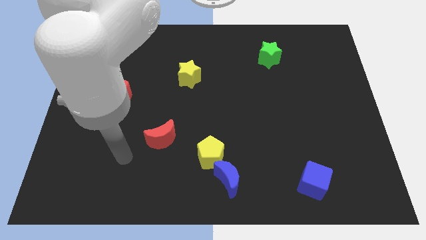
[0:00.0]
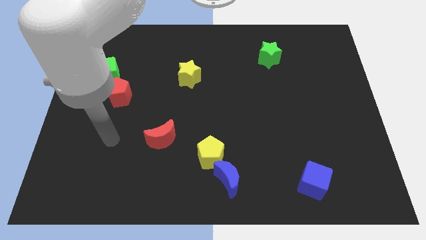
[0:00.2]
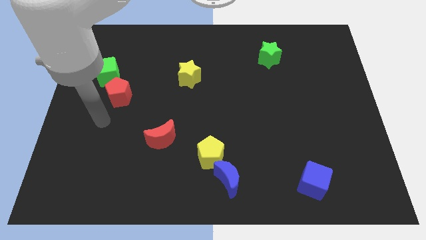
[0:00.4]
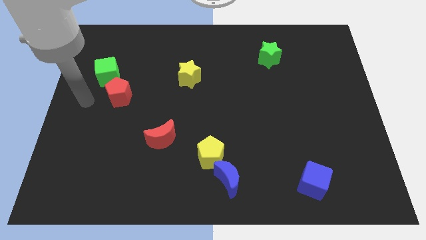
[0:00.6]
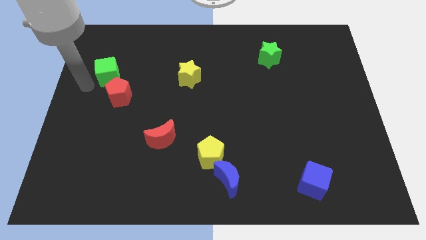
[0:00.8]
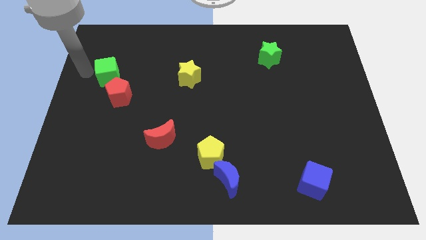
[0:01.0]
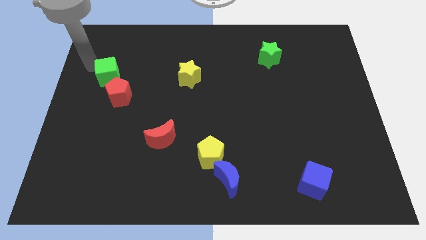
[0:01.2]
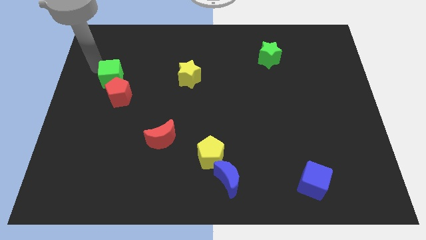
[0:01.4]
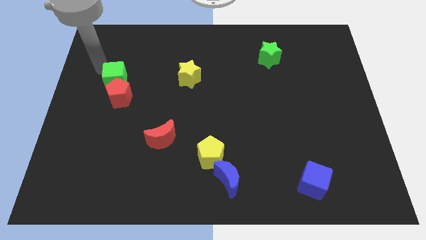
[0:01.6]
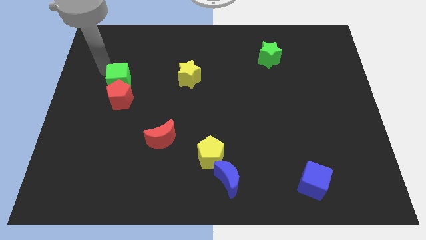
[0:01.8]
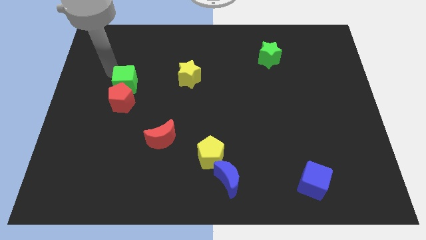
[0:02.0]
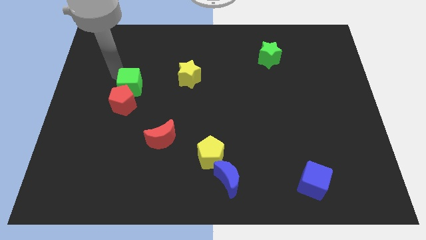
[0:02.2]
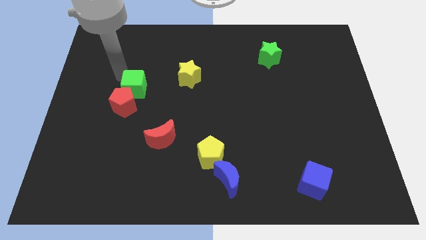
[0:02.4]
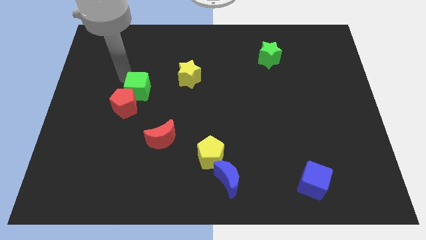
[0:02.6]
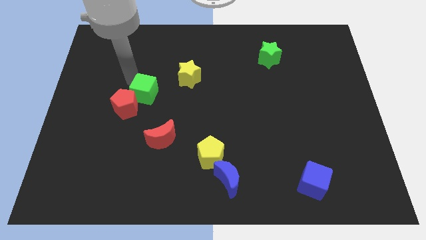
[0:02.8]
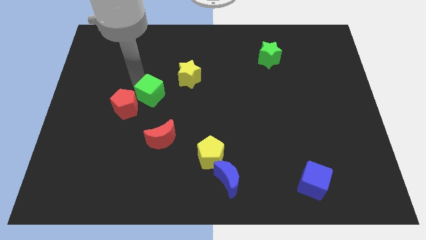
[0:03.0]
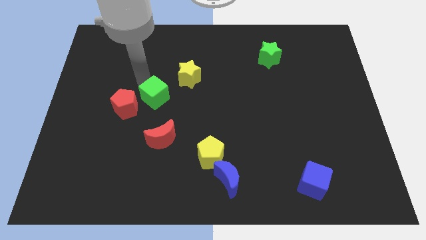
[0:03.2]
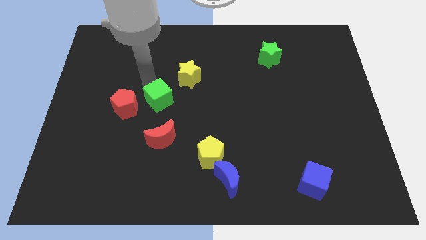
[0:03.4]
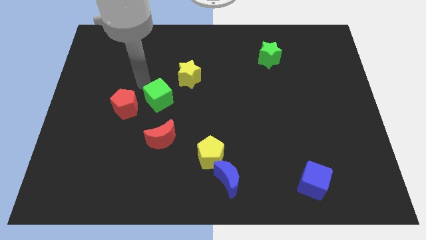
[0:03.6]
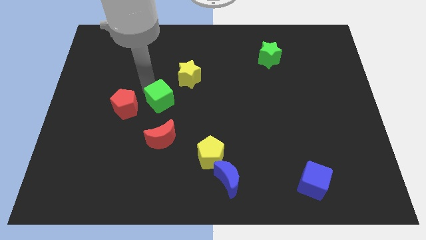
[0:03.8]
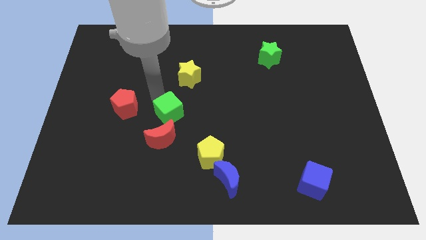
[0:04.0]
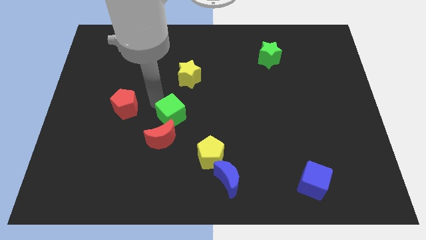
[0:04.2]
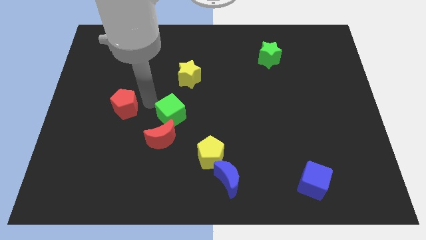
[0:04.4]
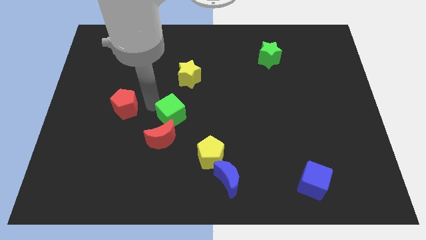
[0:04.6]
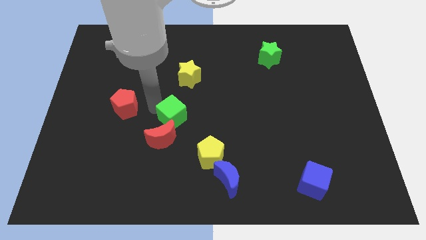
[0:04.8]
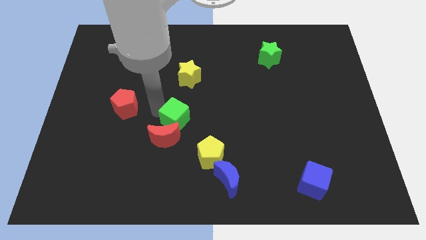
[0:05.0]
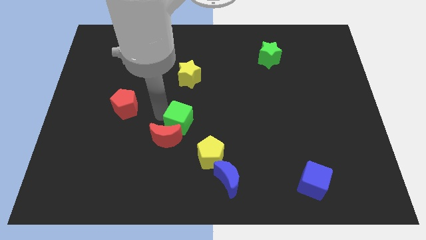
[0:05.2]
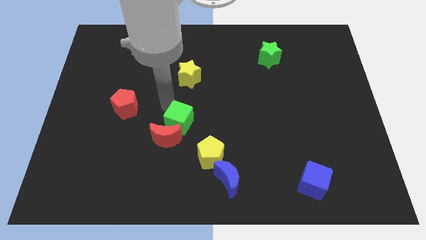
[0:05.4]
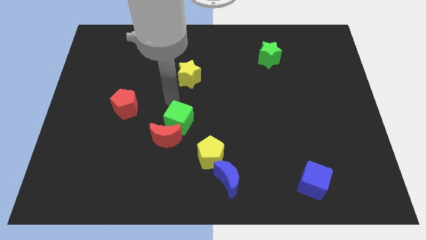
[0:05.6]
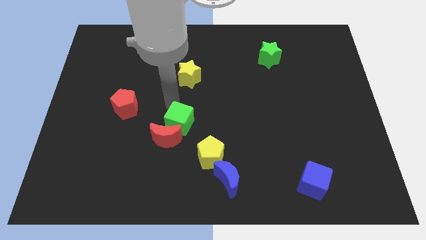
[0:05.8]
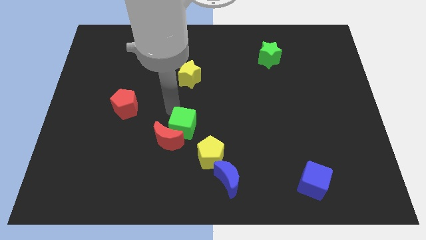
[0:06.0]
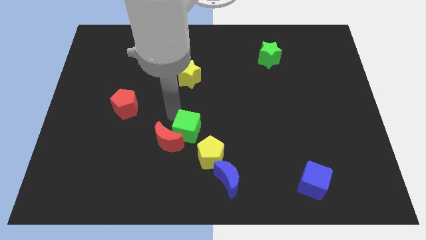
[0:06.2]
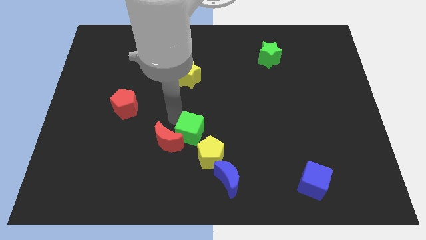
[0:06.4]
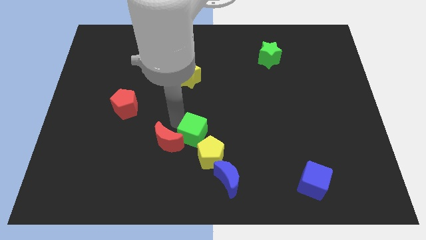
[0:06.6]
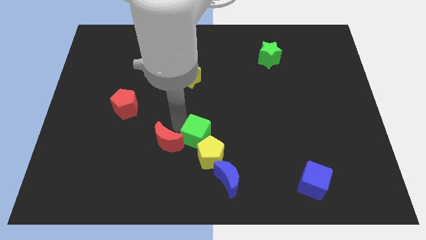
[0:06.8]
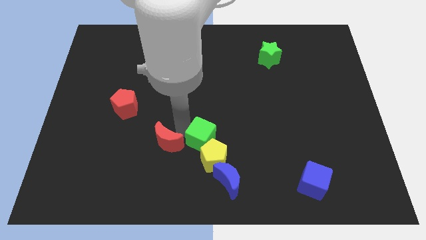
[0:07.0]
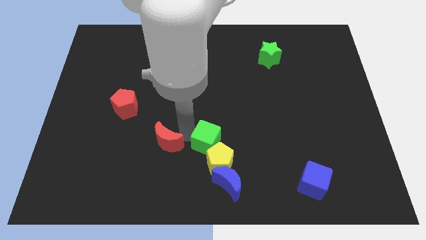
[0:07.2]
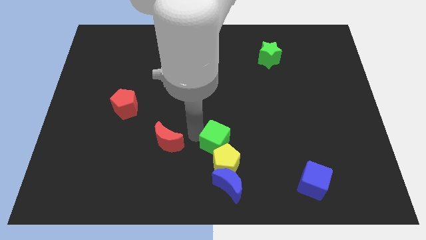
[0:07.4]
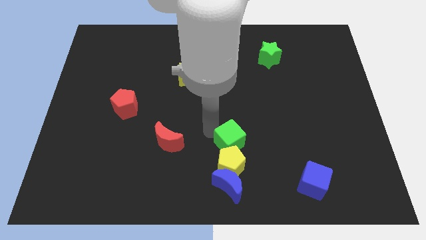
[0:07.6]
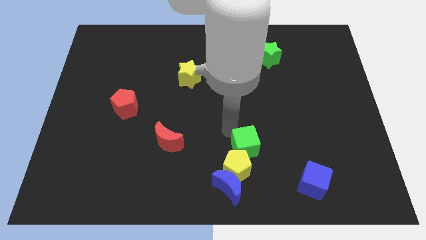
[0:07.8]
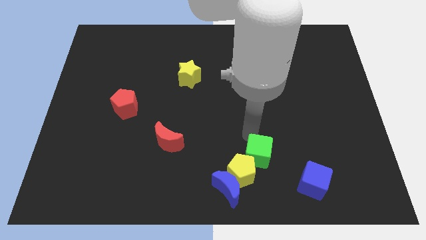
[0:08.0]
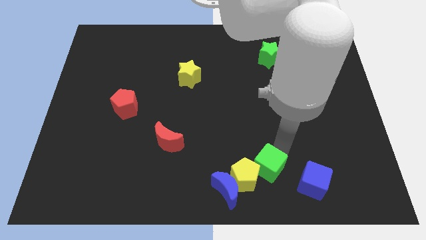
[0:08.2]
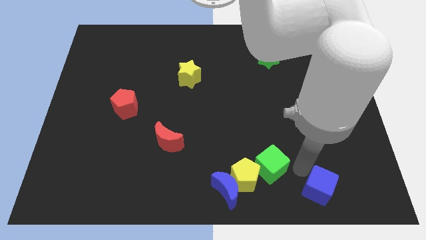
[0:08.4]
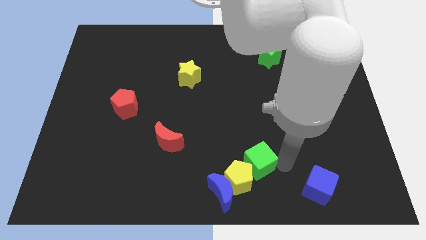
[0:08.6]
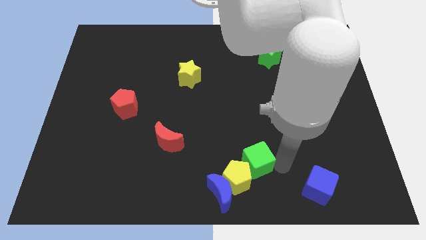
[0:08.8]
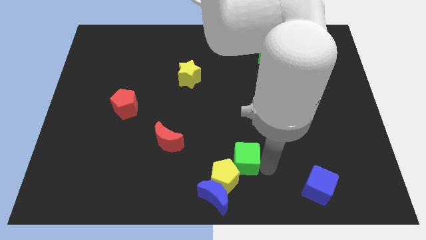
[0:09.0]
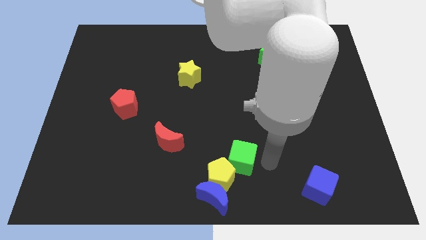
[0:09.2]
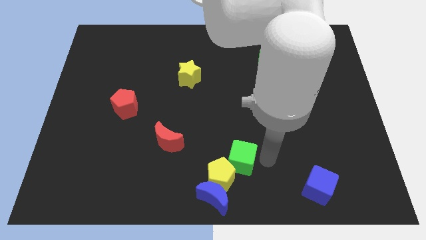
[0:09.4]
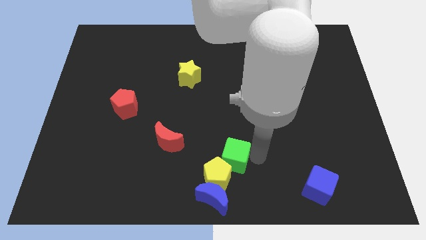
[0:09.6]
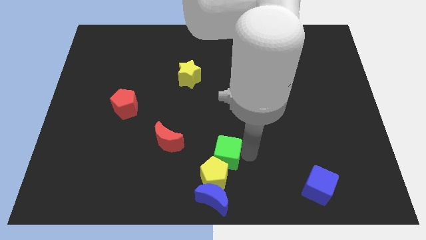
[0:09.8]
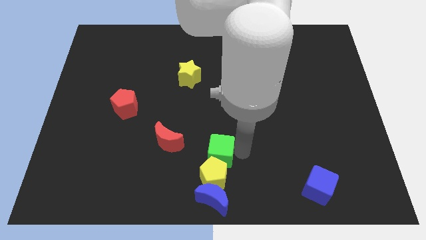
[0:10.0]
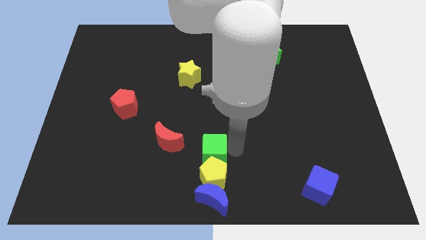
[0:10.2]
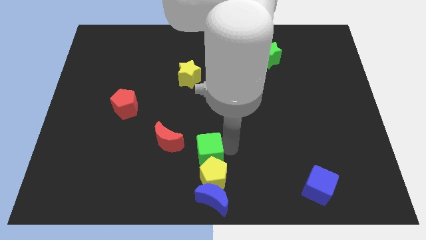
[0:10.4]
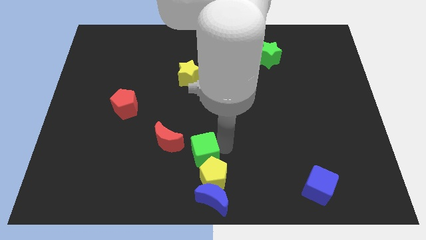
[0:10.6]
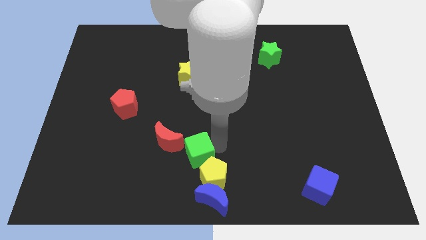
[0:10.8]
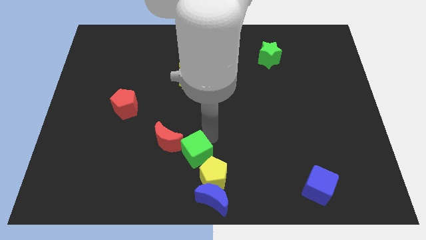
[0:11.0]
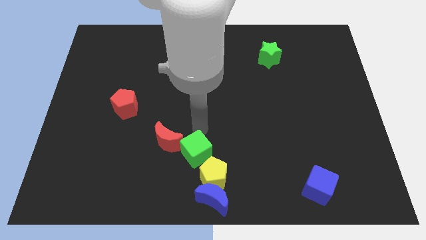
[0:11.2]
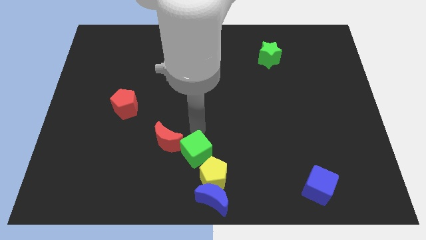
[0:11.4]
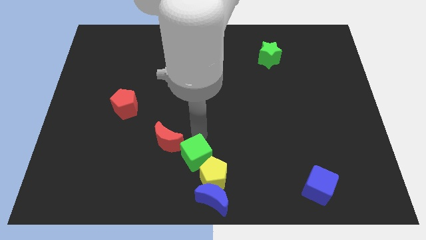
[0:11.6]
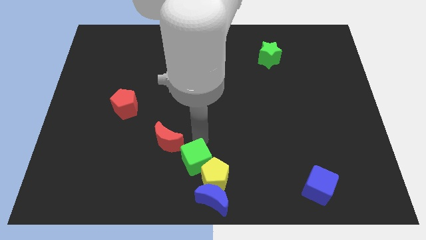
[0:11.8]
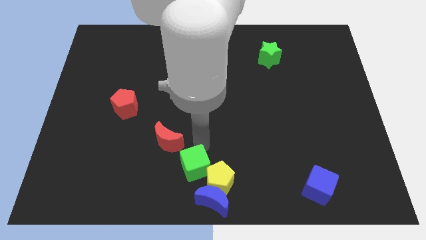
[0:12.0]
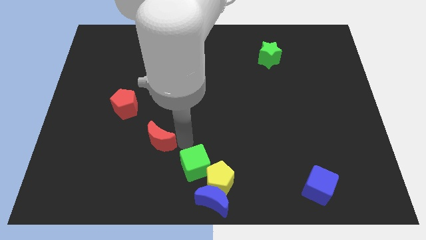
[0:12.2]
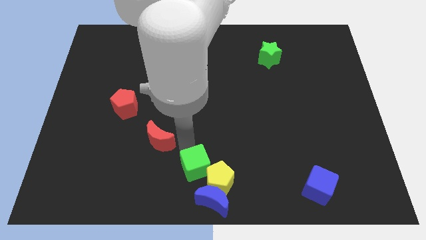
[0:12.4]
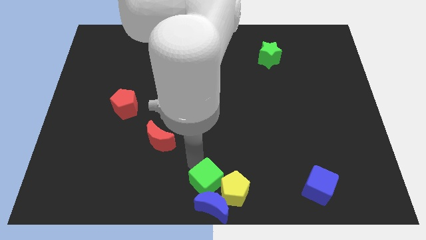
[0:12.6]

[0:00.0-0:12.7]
move the green cube close to the blue moon
